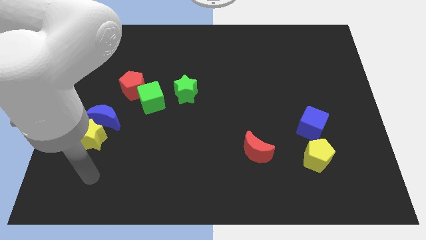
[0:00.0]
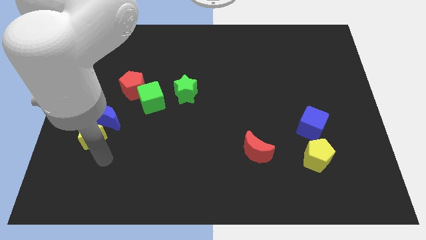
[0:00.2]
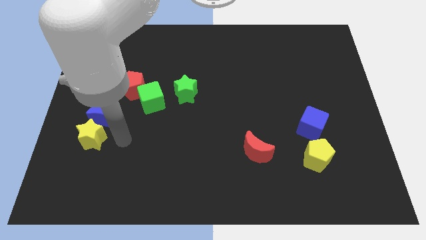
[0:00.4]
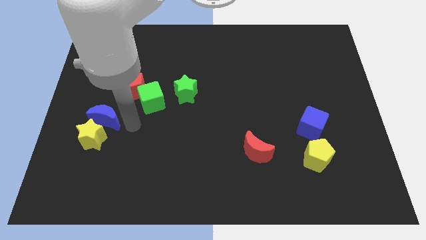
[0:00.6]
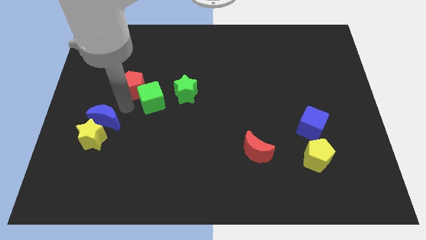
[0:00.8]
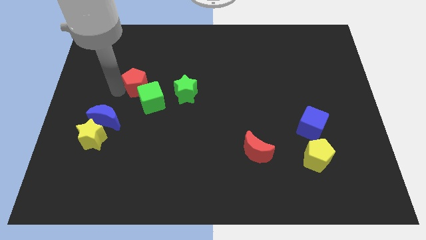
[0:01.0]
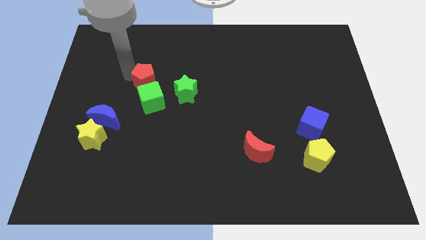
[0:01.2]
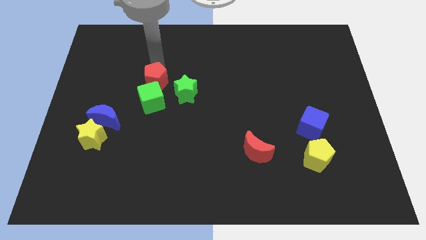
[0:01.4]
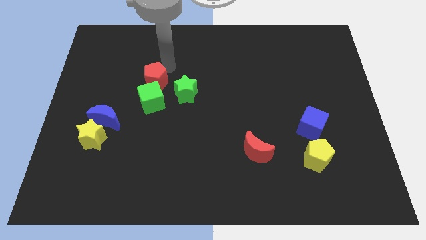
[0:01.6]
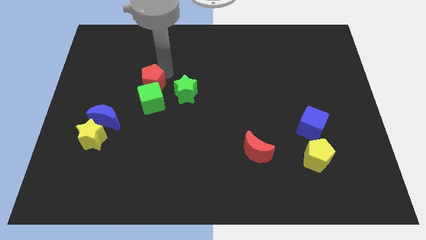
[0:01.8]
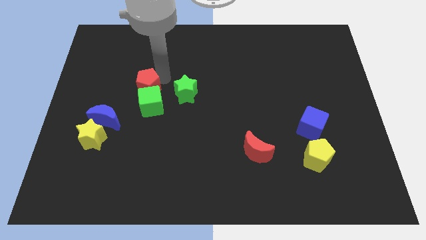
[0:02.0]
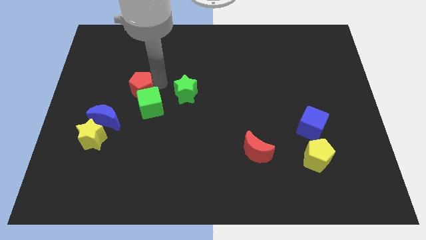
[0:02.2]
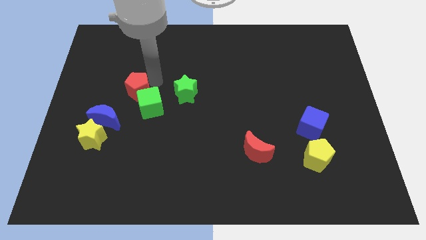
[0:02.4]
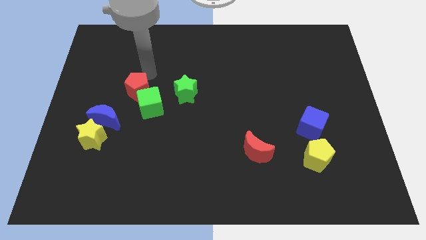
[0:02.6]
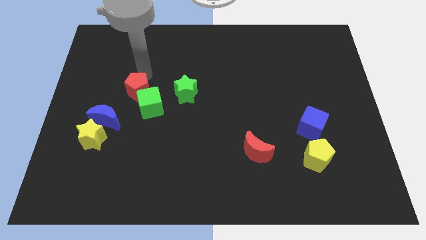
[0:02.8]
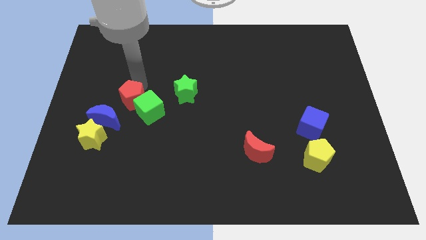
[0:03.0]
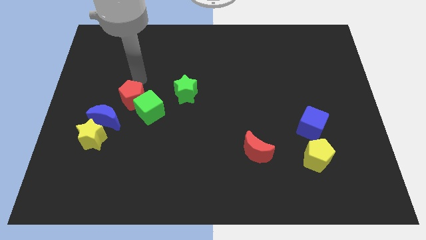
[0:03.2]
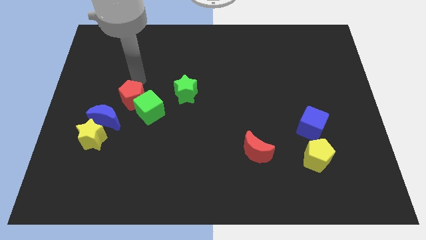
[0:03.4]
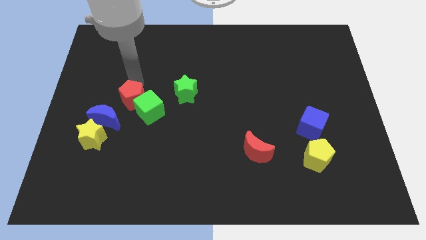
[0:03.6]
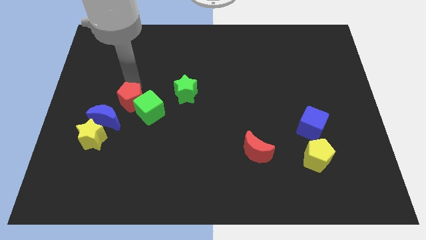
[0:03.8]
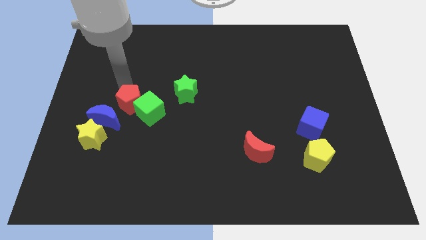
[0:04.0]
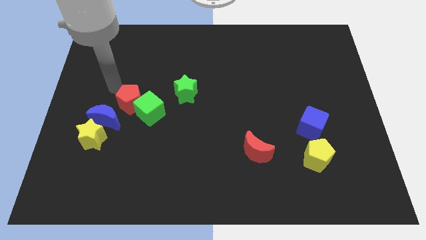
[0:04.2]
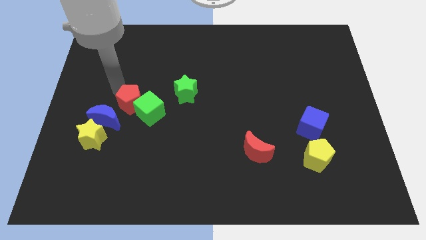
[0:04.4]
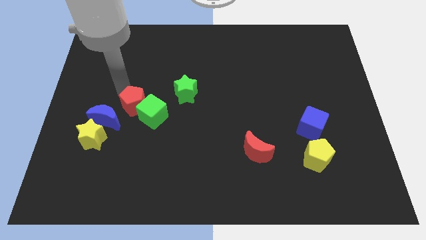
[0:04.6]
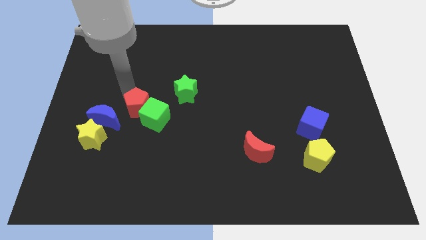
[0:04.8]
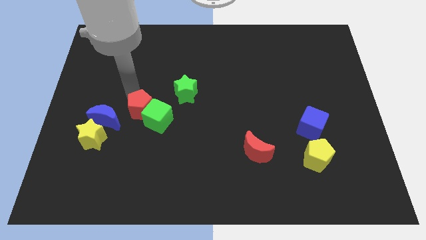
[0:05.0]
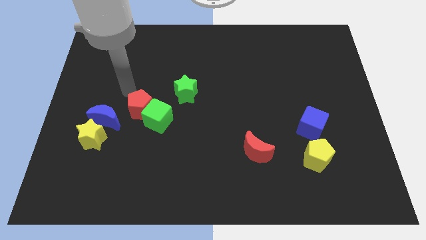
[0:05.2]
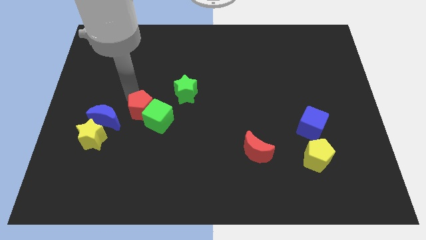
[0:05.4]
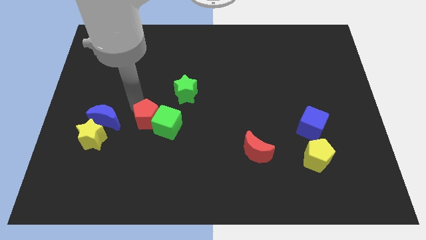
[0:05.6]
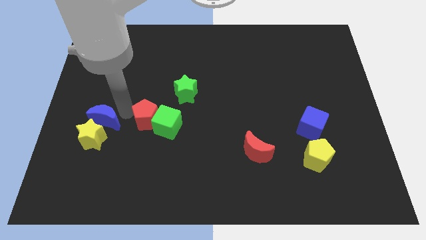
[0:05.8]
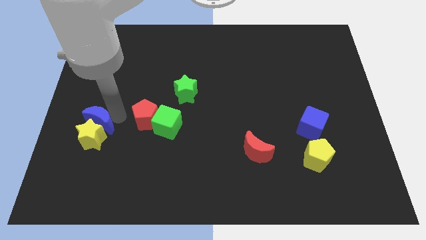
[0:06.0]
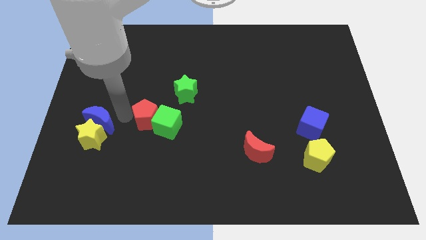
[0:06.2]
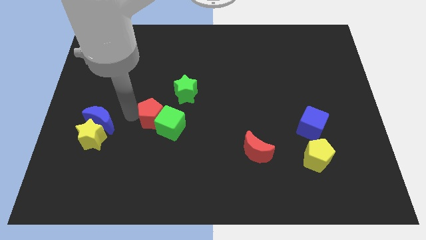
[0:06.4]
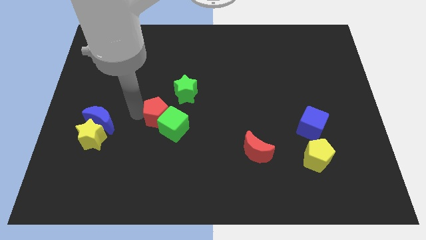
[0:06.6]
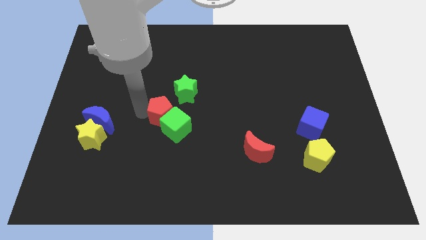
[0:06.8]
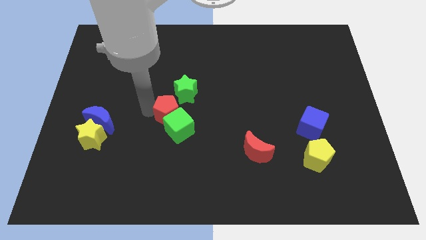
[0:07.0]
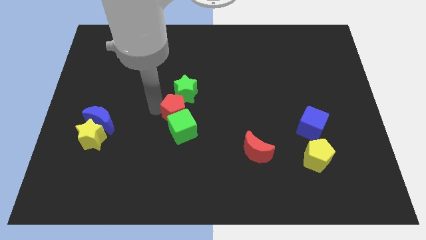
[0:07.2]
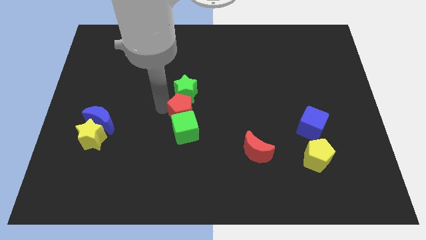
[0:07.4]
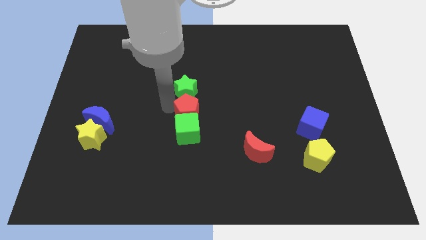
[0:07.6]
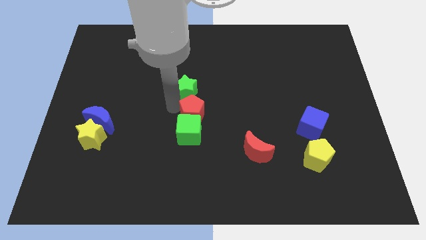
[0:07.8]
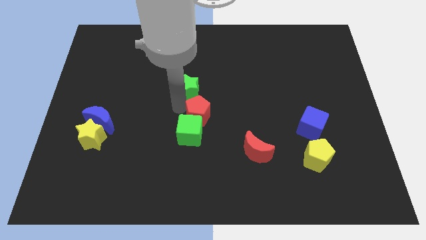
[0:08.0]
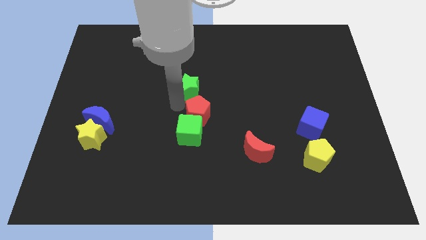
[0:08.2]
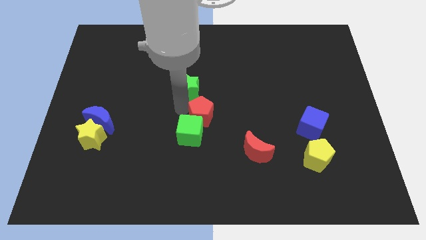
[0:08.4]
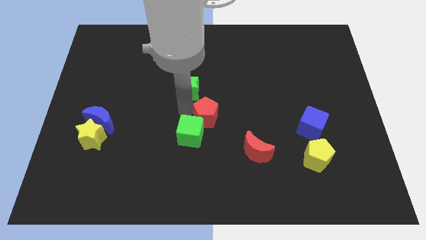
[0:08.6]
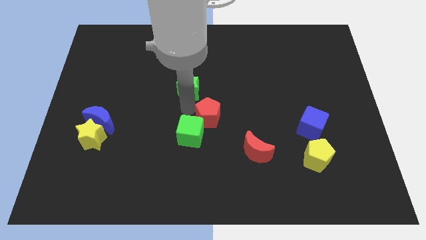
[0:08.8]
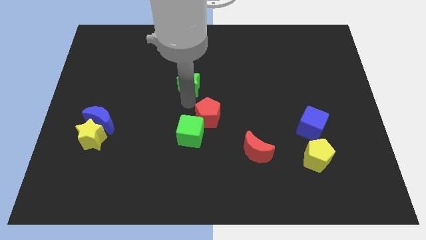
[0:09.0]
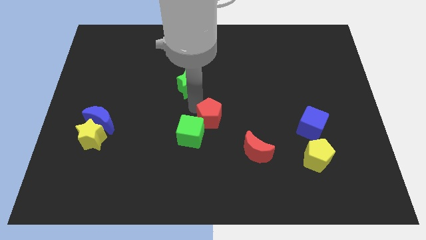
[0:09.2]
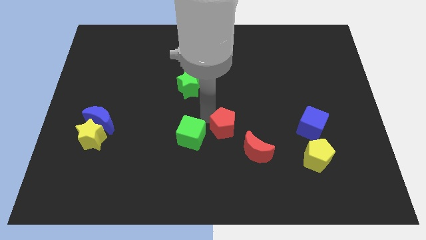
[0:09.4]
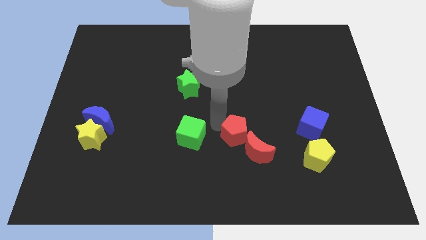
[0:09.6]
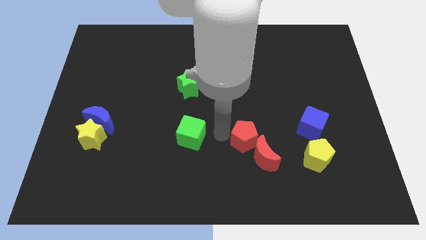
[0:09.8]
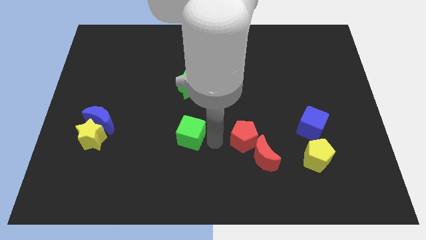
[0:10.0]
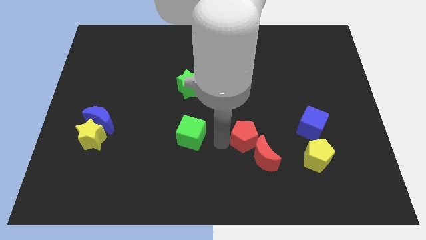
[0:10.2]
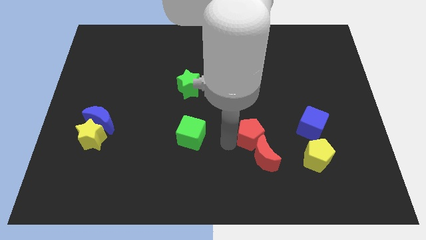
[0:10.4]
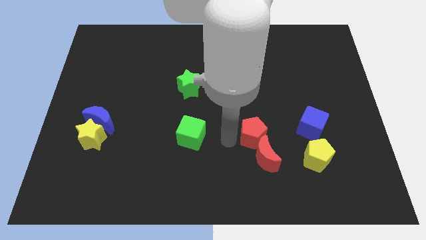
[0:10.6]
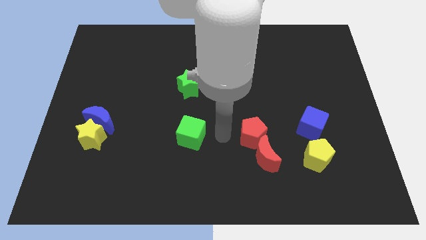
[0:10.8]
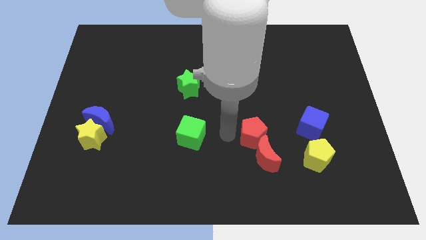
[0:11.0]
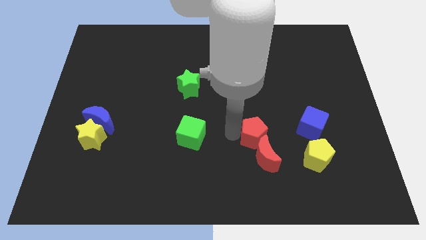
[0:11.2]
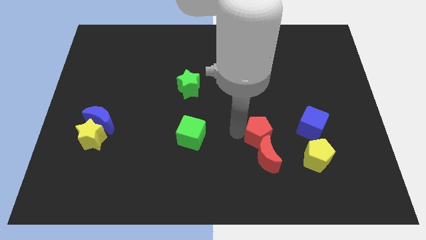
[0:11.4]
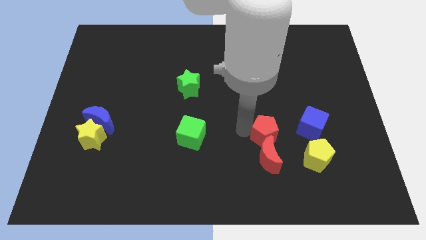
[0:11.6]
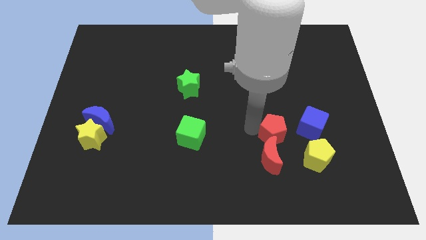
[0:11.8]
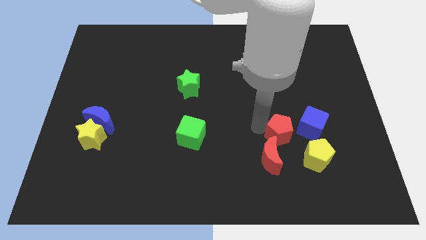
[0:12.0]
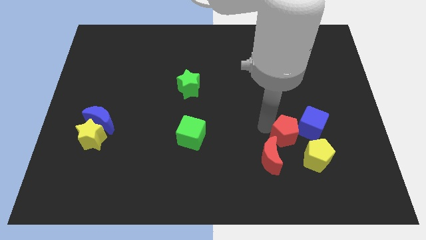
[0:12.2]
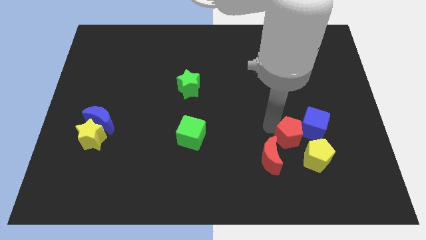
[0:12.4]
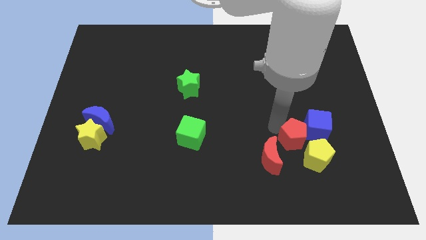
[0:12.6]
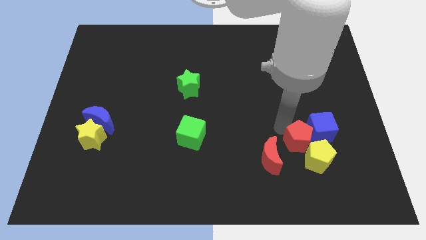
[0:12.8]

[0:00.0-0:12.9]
push the red pentagon to the yellow pentagon

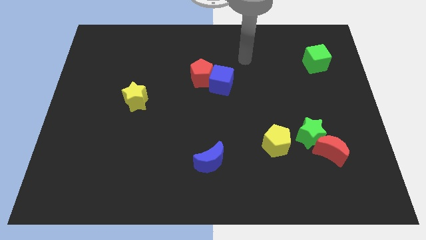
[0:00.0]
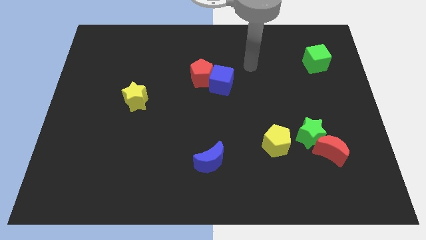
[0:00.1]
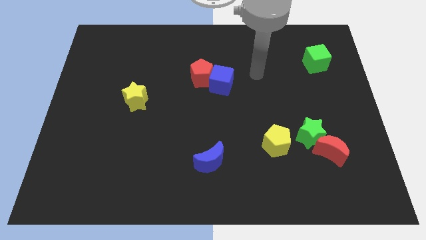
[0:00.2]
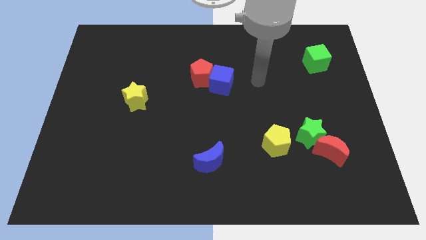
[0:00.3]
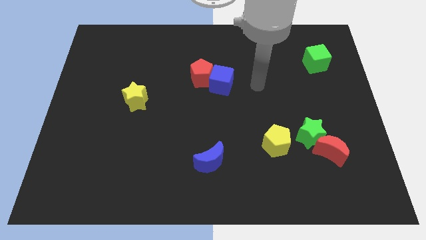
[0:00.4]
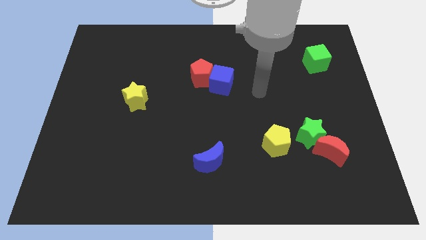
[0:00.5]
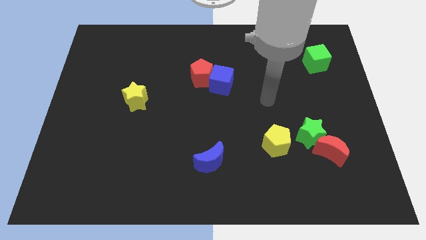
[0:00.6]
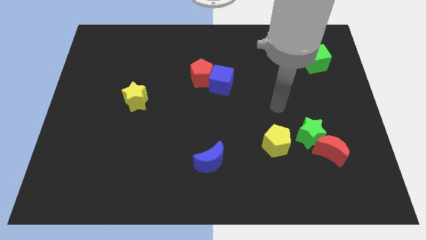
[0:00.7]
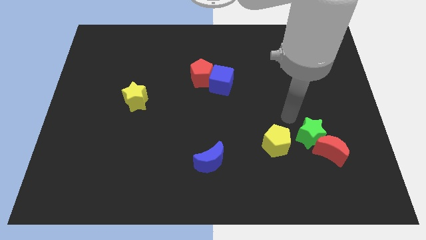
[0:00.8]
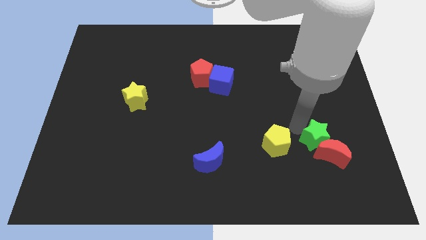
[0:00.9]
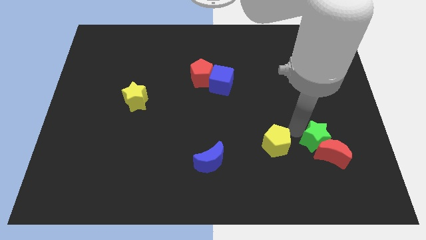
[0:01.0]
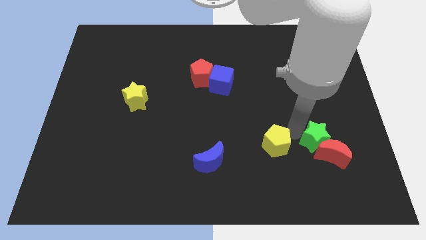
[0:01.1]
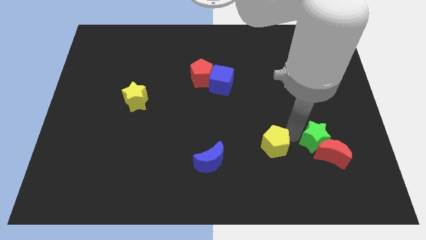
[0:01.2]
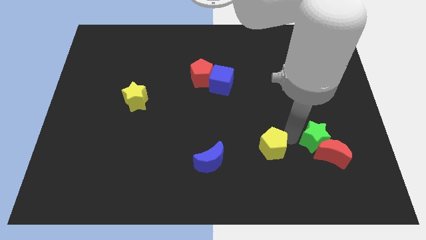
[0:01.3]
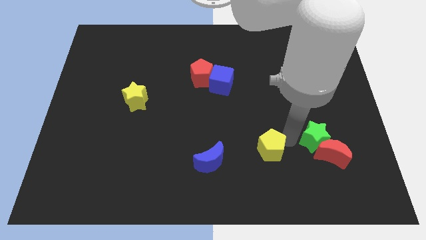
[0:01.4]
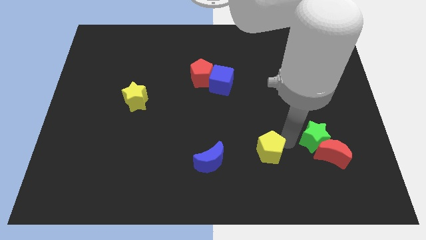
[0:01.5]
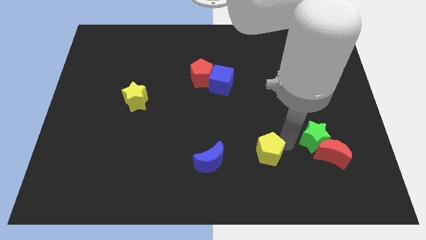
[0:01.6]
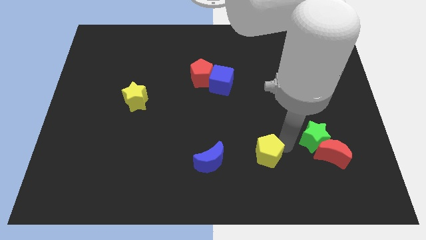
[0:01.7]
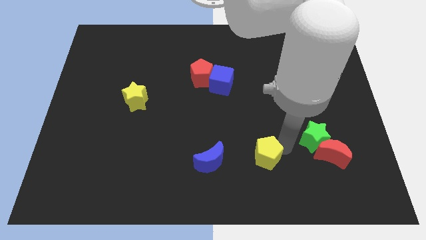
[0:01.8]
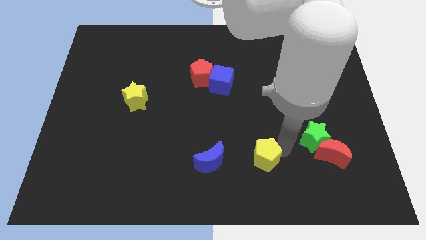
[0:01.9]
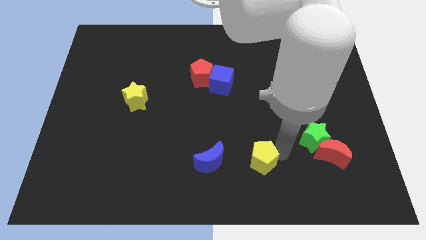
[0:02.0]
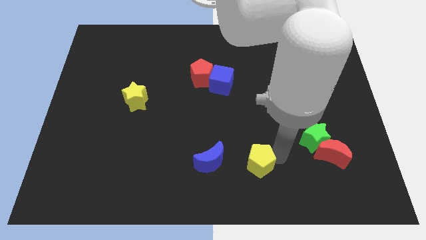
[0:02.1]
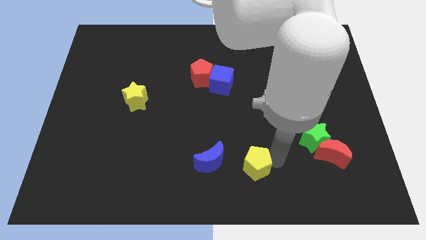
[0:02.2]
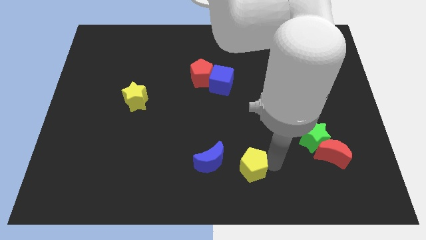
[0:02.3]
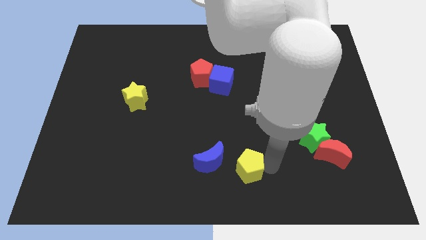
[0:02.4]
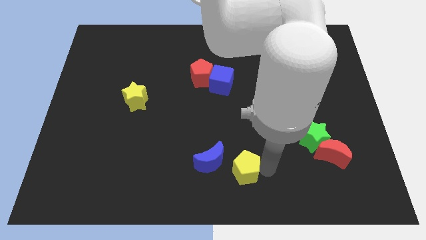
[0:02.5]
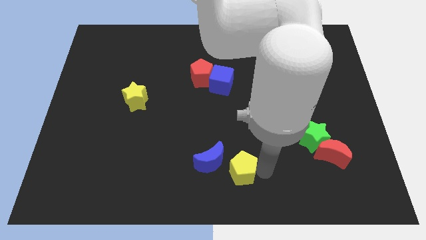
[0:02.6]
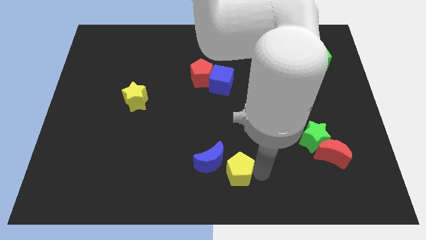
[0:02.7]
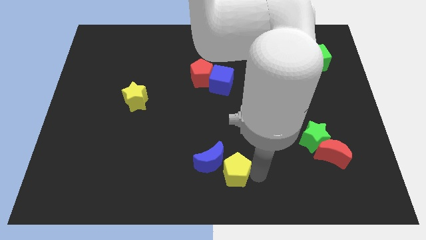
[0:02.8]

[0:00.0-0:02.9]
slide the yellow pentagon next to the blue moon
